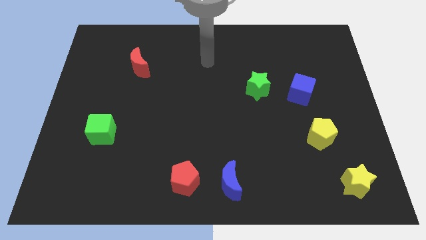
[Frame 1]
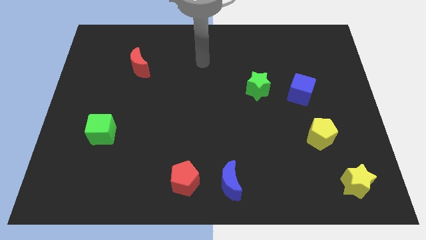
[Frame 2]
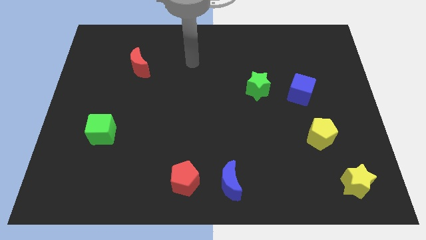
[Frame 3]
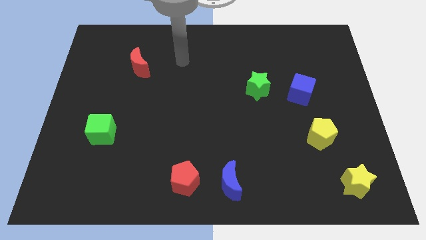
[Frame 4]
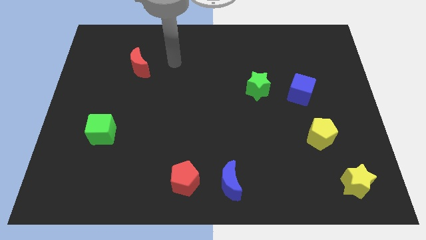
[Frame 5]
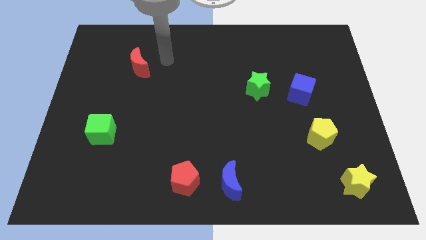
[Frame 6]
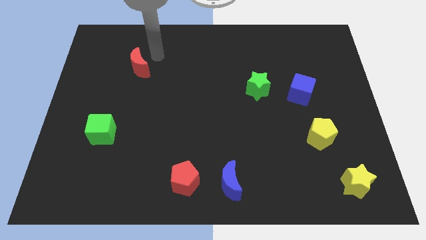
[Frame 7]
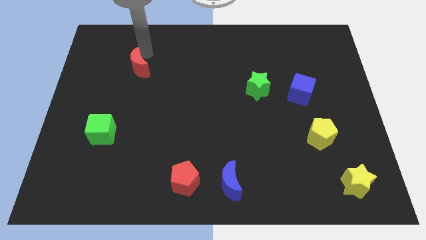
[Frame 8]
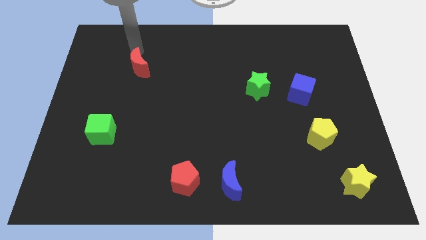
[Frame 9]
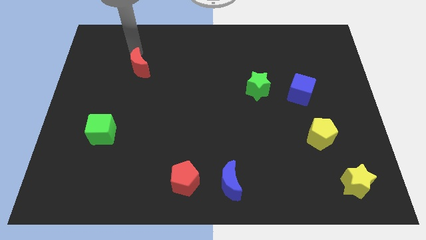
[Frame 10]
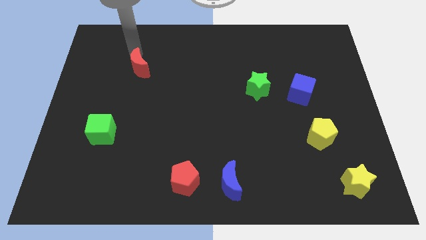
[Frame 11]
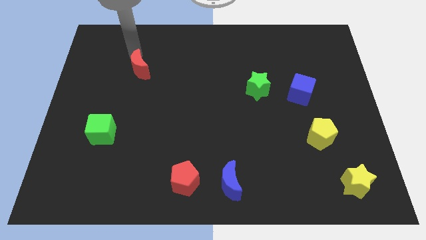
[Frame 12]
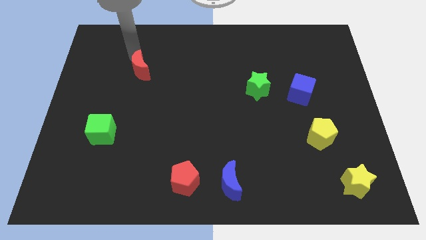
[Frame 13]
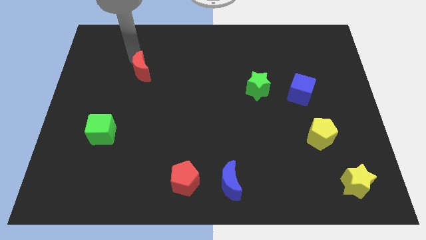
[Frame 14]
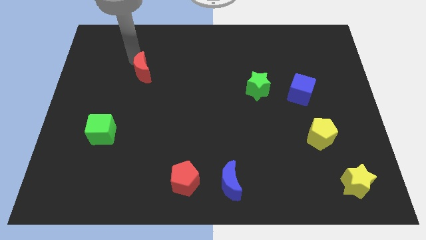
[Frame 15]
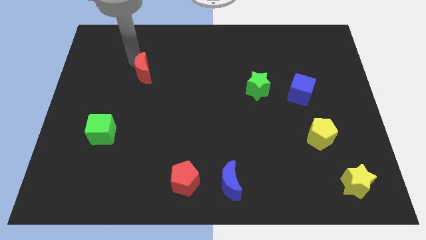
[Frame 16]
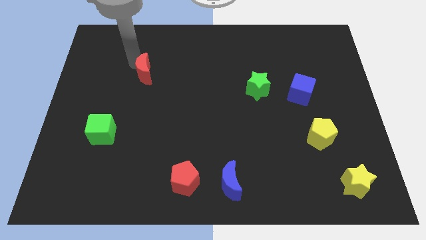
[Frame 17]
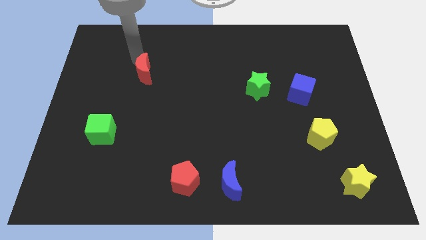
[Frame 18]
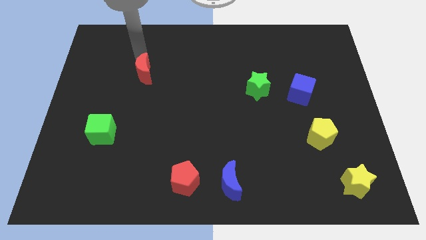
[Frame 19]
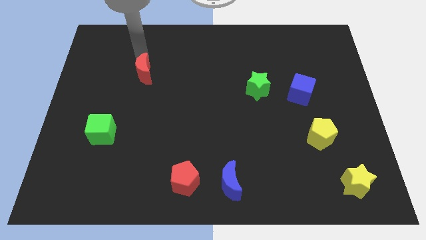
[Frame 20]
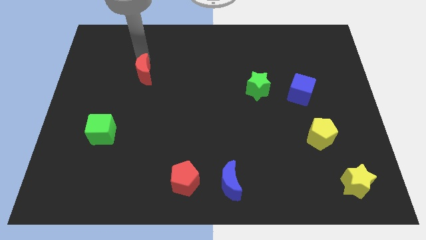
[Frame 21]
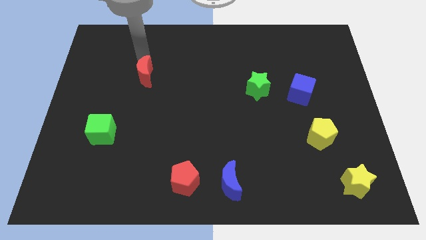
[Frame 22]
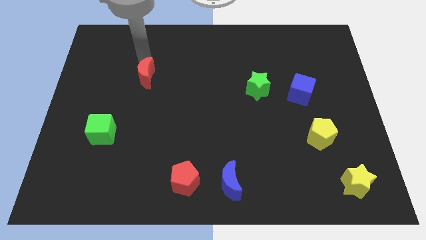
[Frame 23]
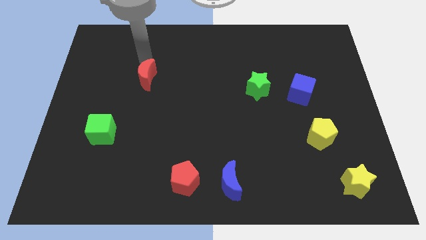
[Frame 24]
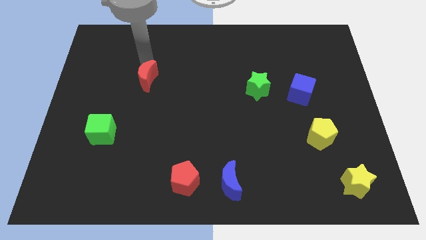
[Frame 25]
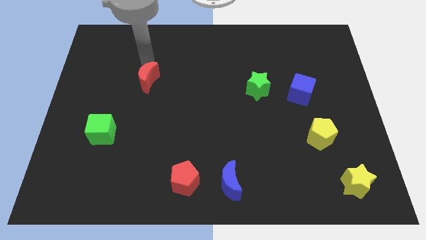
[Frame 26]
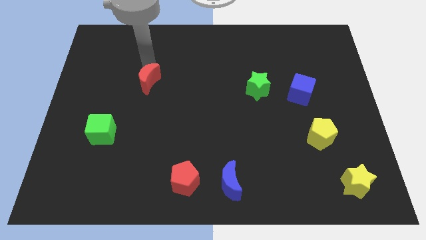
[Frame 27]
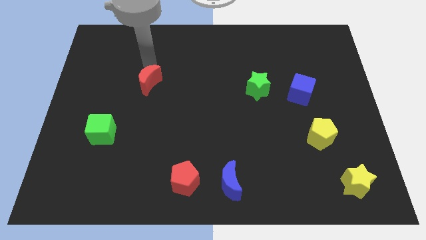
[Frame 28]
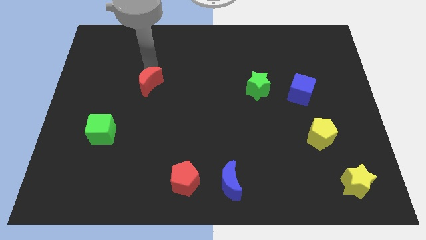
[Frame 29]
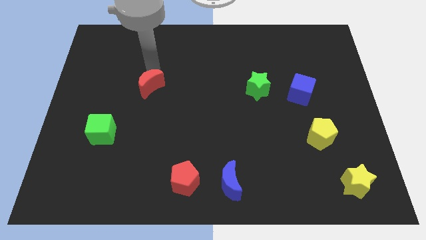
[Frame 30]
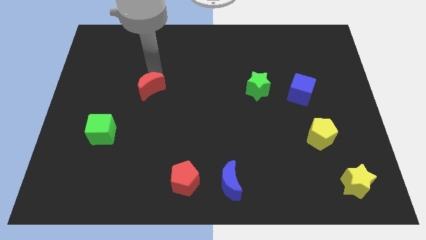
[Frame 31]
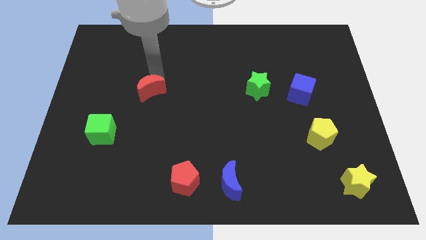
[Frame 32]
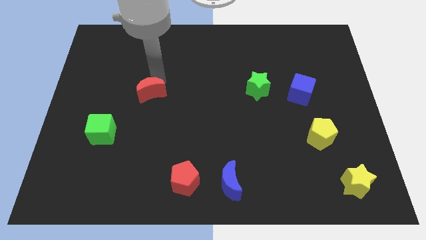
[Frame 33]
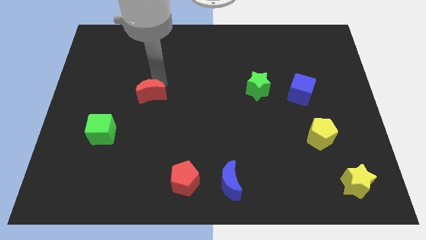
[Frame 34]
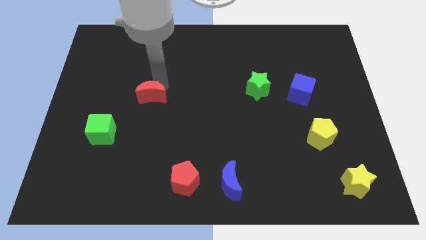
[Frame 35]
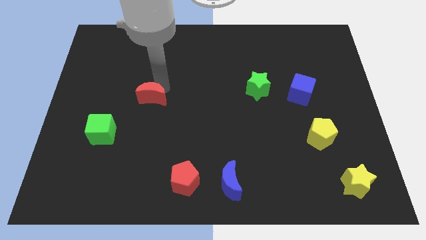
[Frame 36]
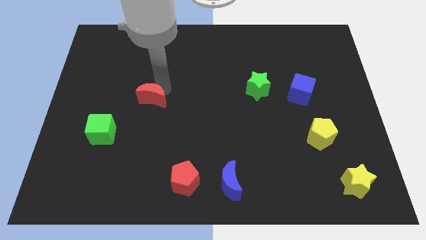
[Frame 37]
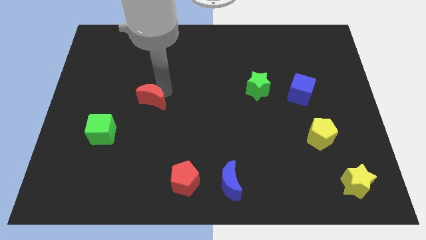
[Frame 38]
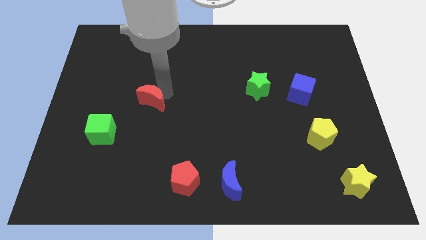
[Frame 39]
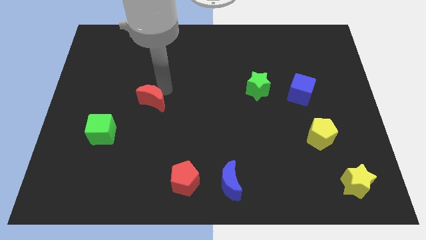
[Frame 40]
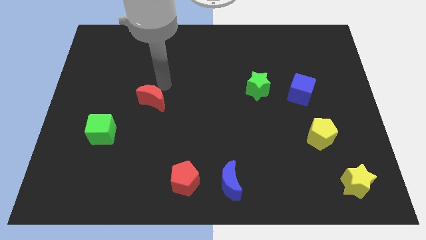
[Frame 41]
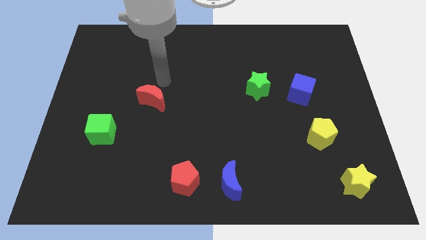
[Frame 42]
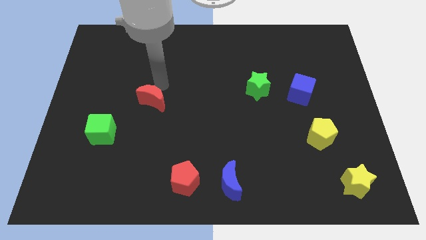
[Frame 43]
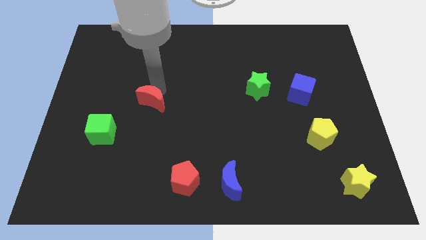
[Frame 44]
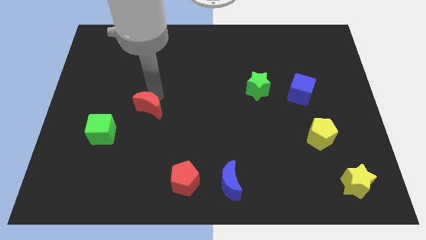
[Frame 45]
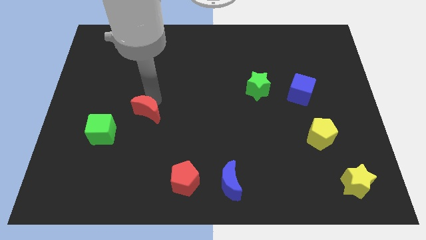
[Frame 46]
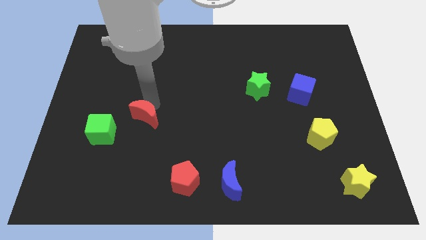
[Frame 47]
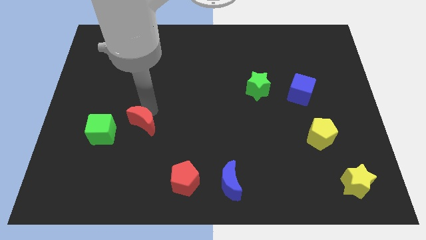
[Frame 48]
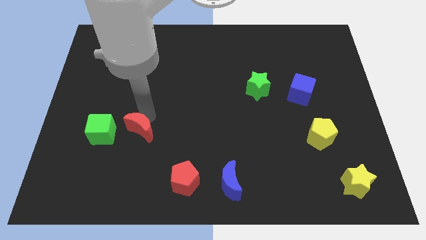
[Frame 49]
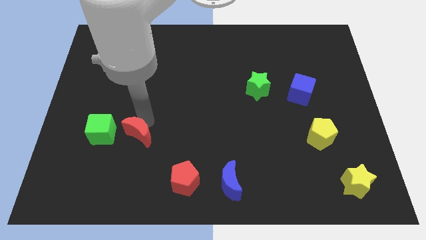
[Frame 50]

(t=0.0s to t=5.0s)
slide the red moon down

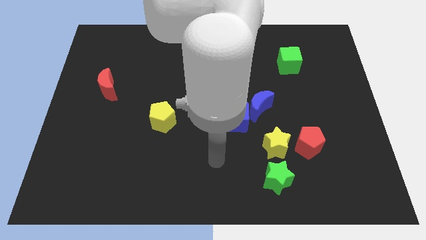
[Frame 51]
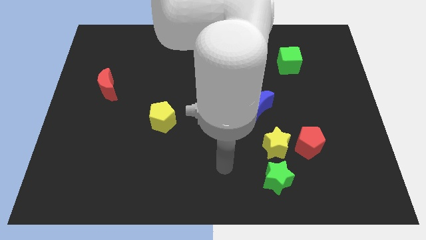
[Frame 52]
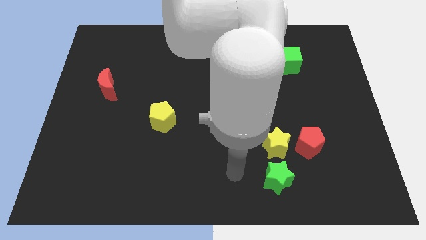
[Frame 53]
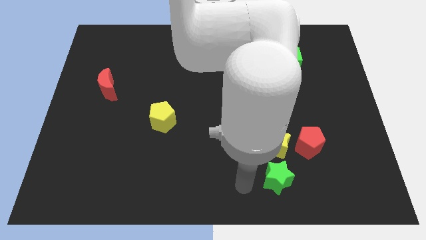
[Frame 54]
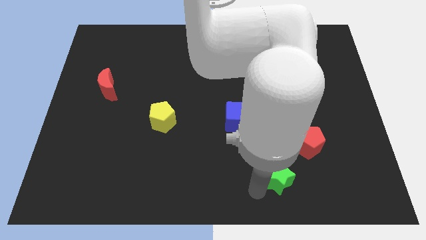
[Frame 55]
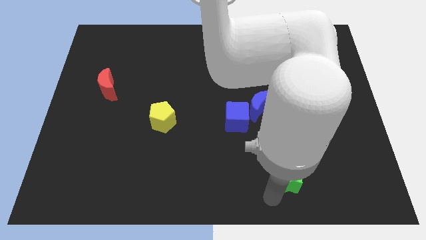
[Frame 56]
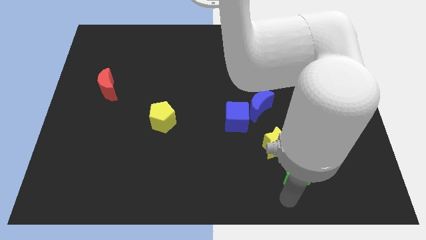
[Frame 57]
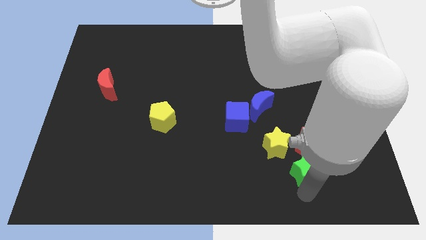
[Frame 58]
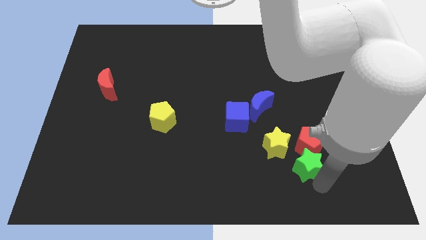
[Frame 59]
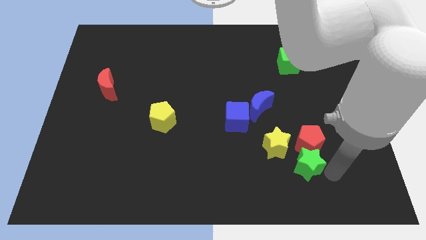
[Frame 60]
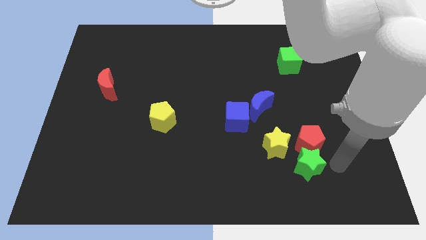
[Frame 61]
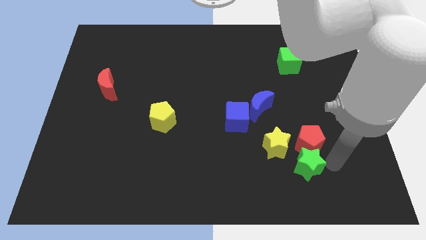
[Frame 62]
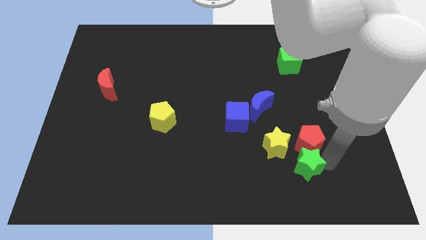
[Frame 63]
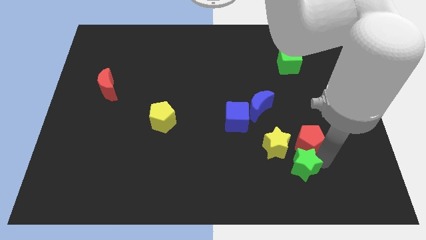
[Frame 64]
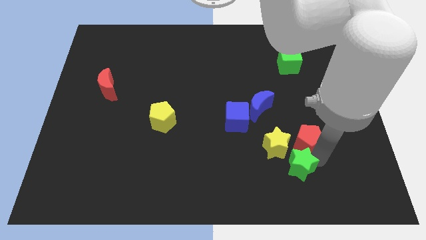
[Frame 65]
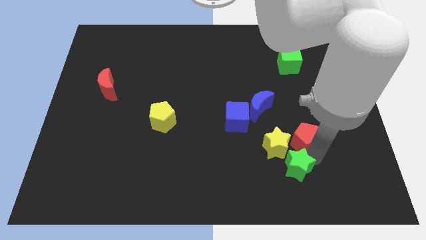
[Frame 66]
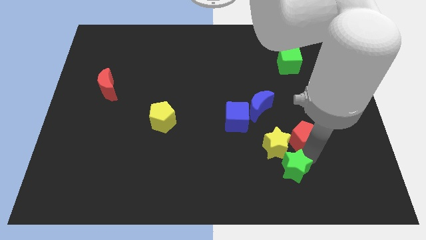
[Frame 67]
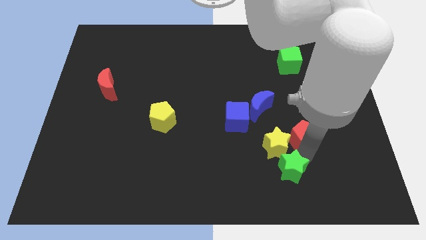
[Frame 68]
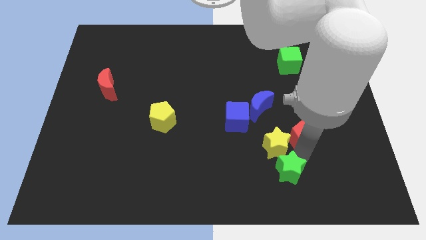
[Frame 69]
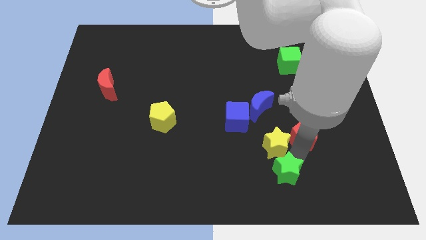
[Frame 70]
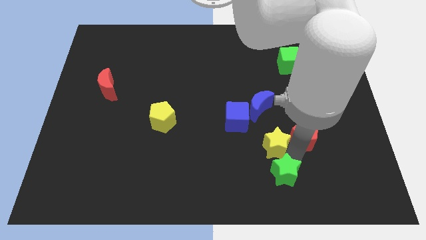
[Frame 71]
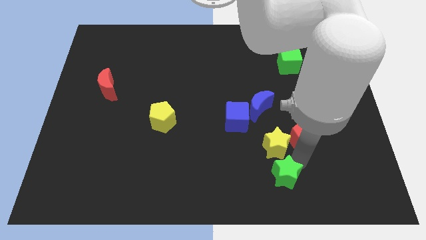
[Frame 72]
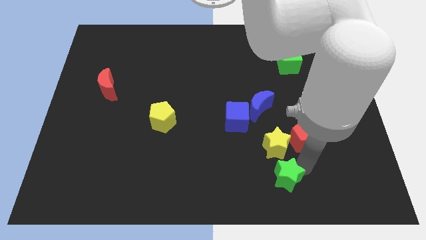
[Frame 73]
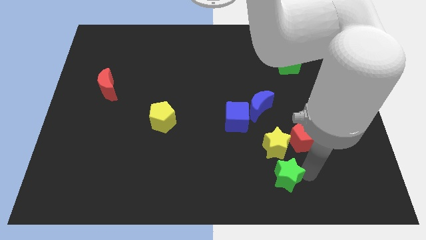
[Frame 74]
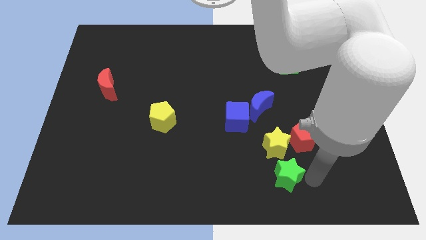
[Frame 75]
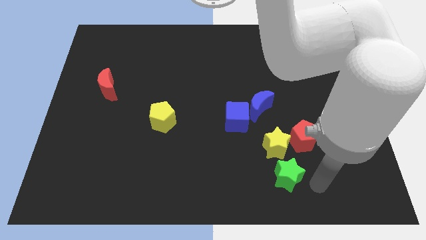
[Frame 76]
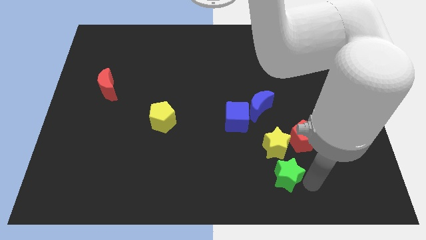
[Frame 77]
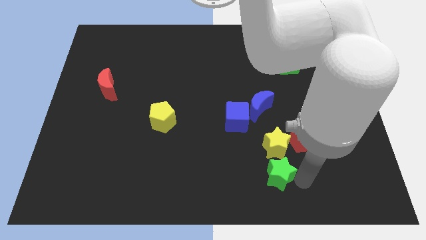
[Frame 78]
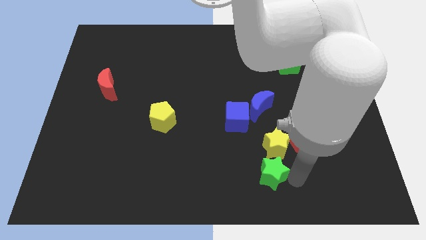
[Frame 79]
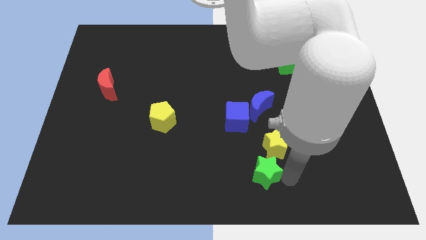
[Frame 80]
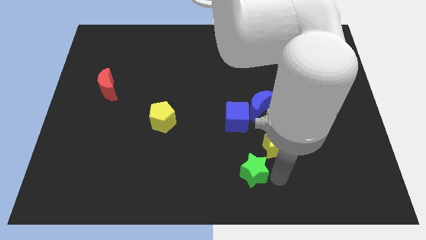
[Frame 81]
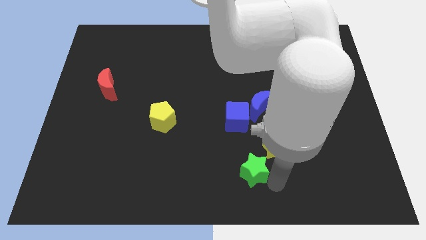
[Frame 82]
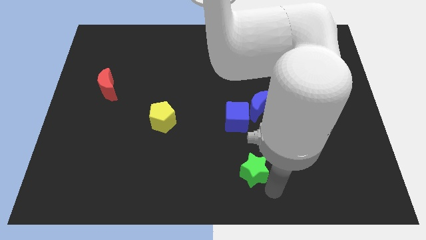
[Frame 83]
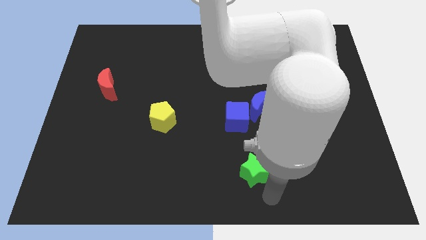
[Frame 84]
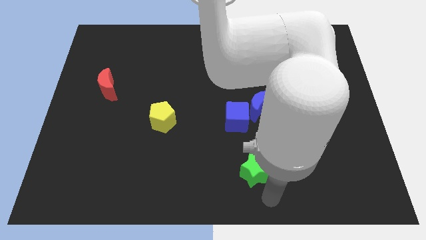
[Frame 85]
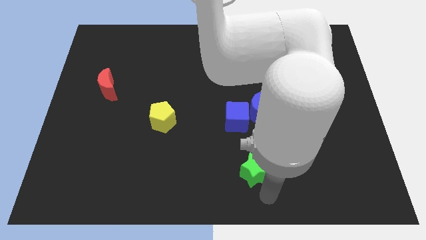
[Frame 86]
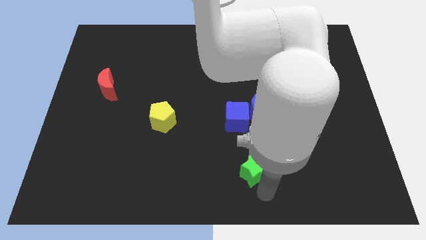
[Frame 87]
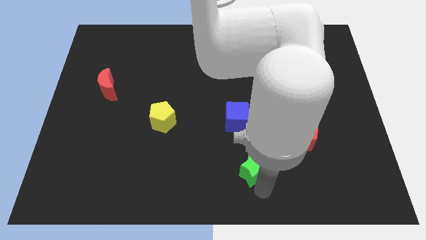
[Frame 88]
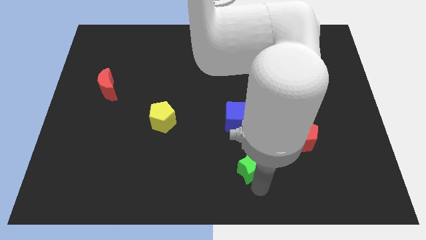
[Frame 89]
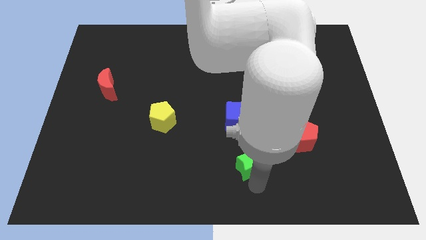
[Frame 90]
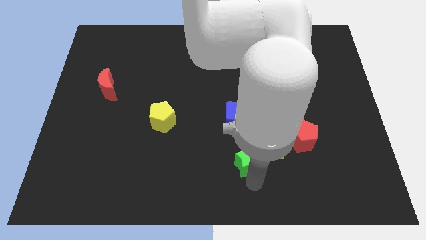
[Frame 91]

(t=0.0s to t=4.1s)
slide the green star up and left a bit
